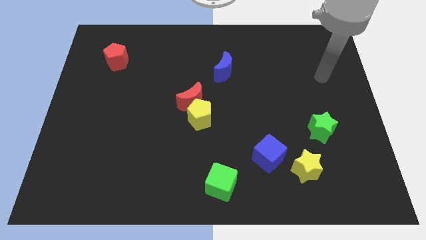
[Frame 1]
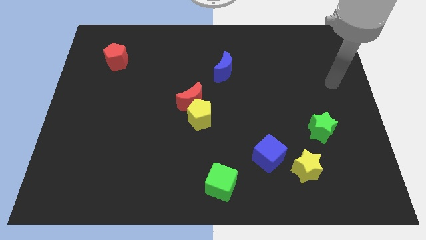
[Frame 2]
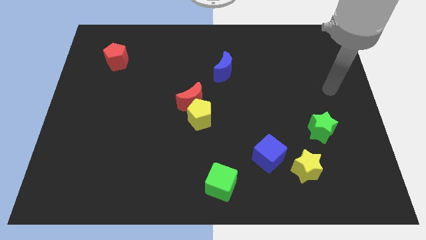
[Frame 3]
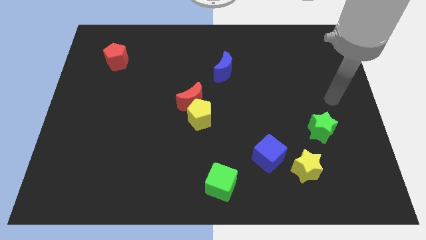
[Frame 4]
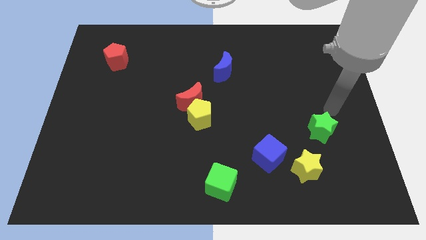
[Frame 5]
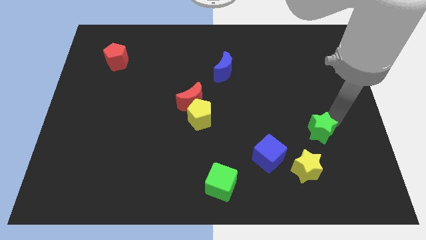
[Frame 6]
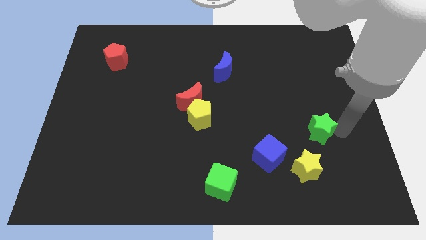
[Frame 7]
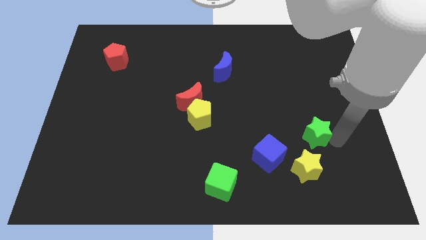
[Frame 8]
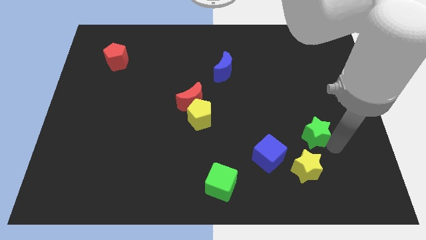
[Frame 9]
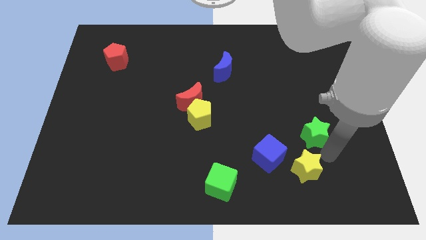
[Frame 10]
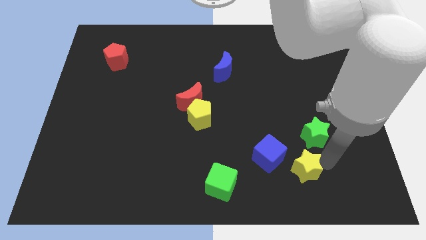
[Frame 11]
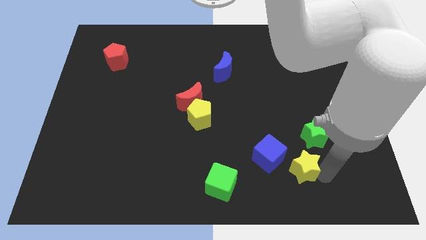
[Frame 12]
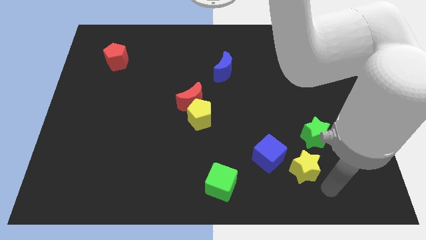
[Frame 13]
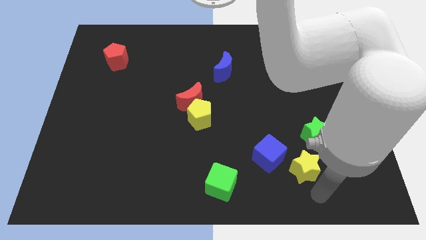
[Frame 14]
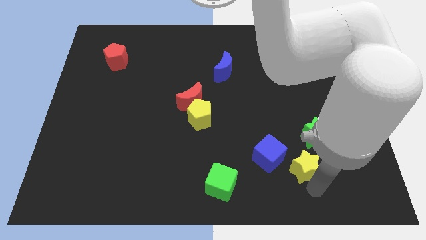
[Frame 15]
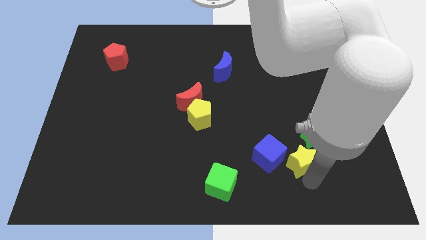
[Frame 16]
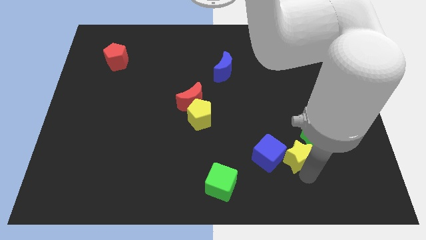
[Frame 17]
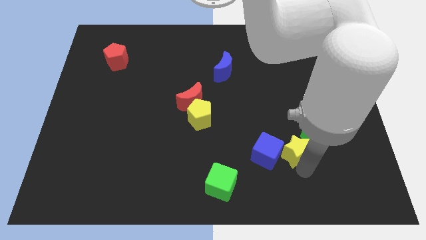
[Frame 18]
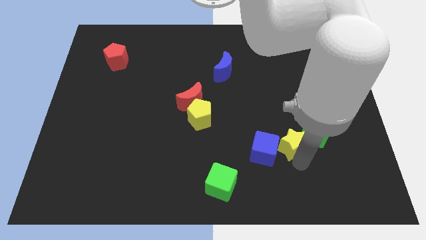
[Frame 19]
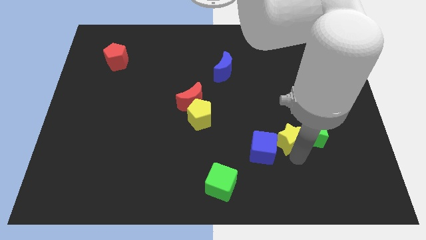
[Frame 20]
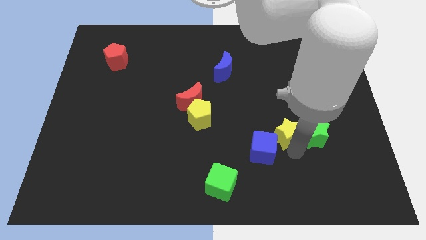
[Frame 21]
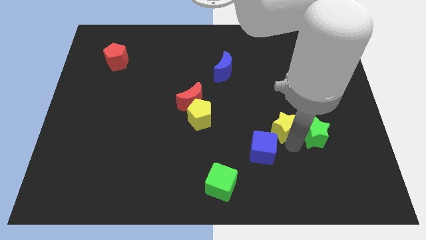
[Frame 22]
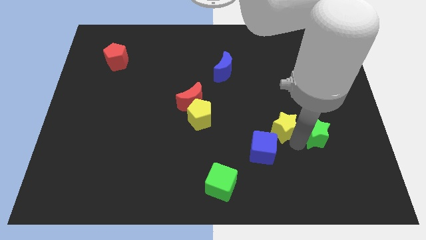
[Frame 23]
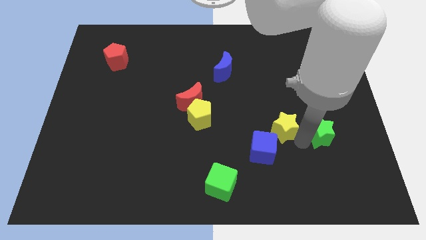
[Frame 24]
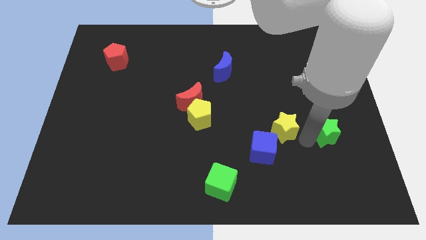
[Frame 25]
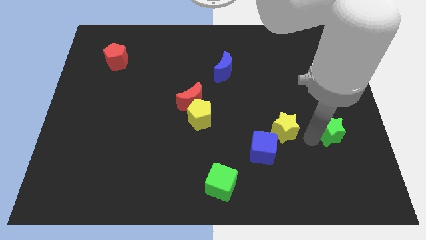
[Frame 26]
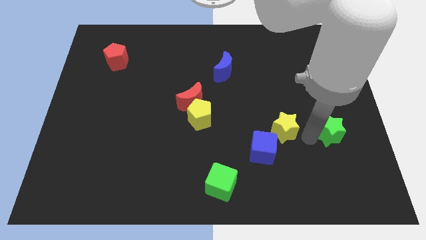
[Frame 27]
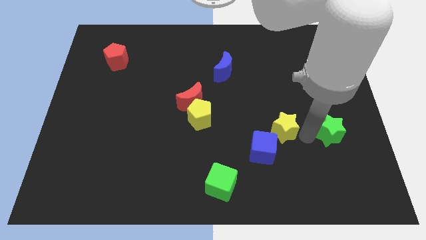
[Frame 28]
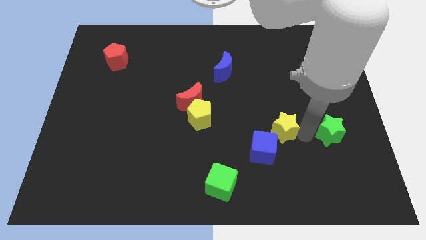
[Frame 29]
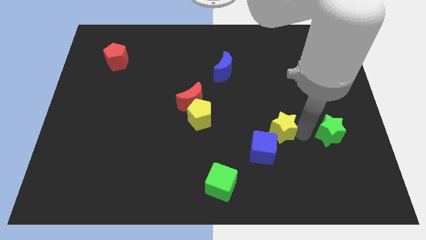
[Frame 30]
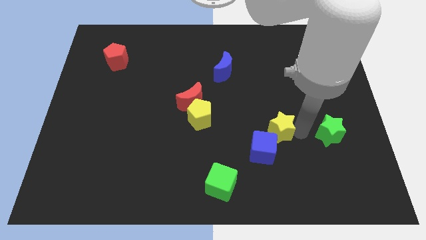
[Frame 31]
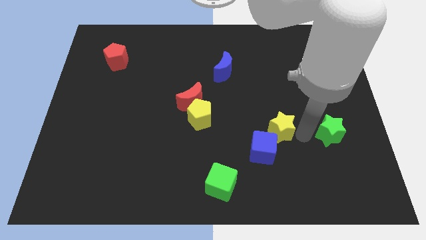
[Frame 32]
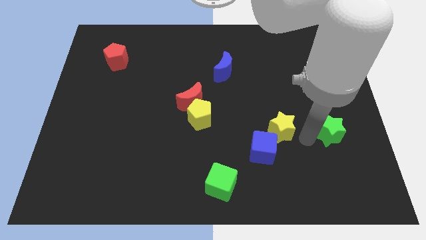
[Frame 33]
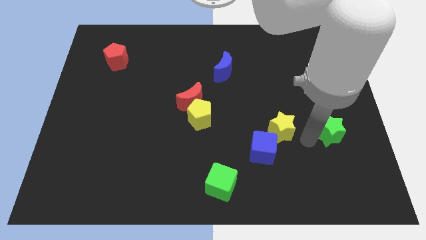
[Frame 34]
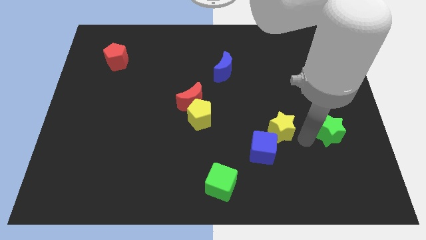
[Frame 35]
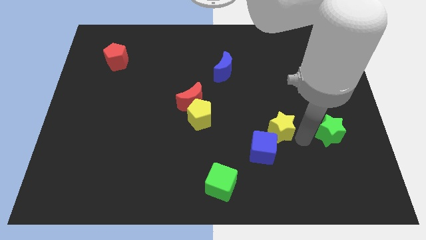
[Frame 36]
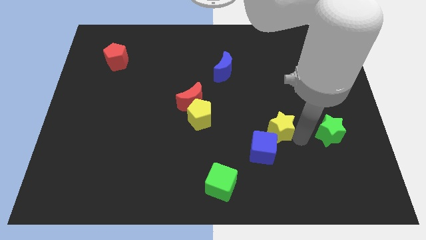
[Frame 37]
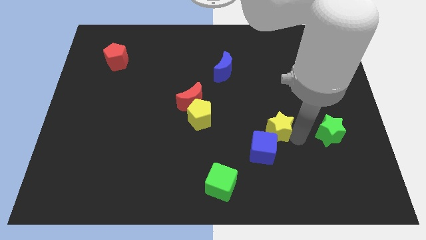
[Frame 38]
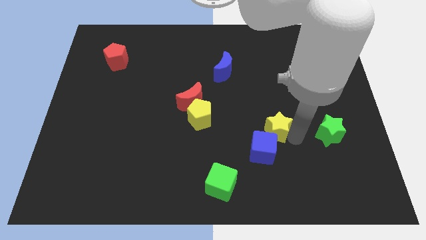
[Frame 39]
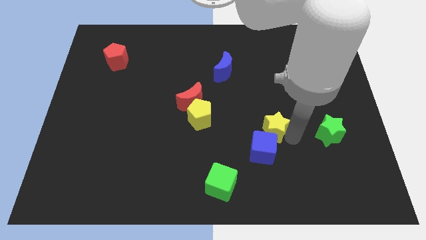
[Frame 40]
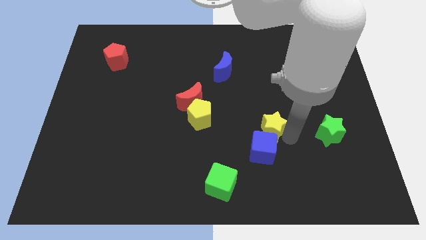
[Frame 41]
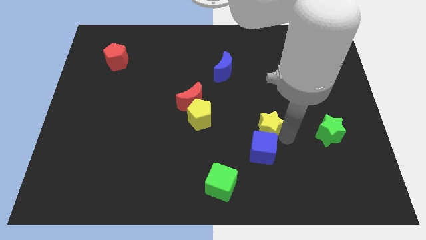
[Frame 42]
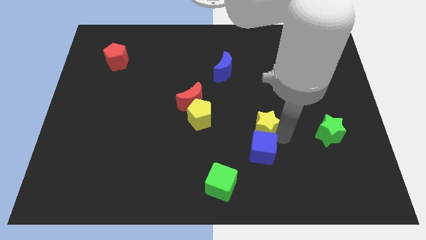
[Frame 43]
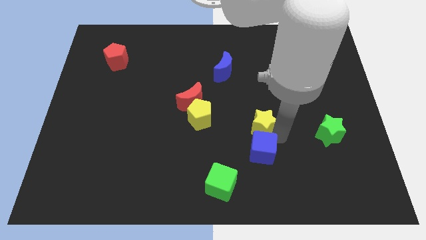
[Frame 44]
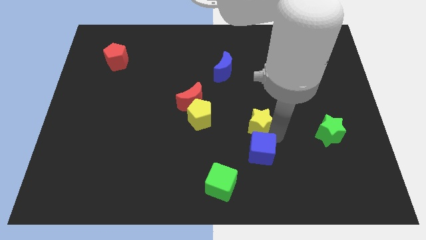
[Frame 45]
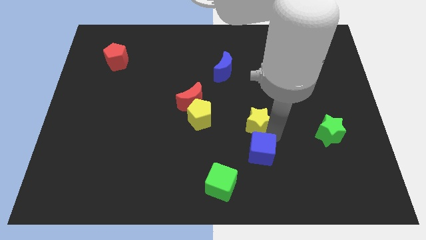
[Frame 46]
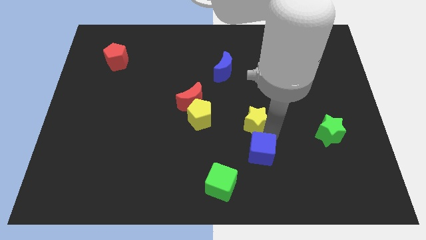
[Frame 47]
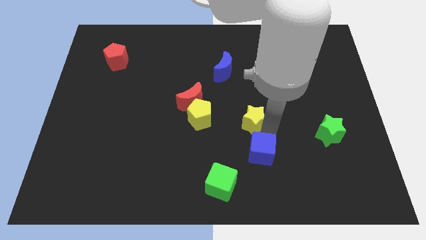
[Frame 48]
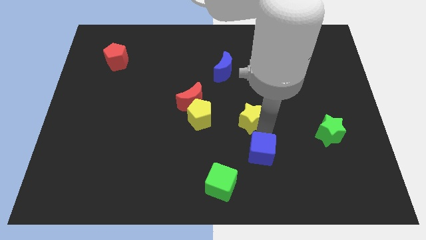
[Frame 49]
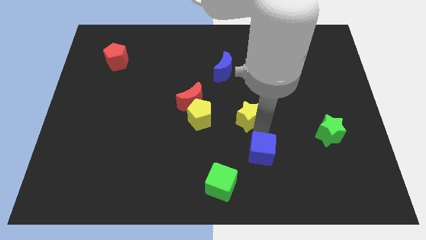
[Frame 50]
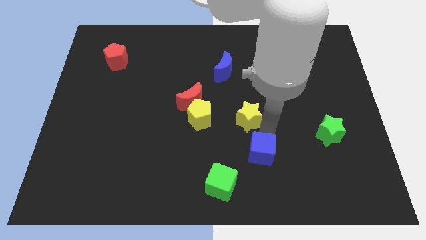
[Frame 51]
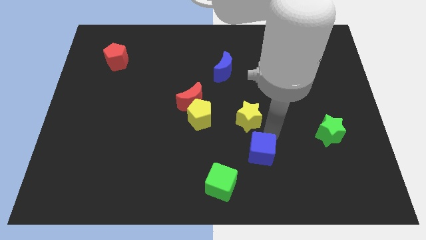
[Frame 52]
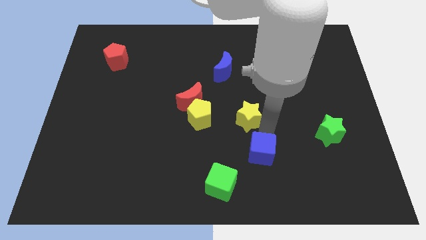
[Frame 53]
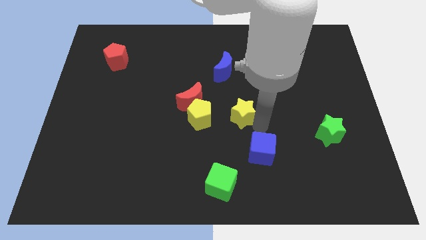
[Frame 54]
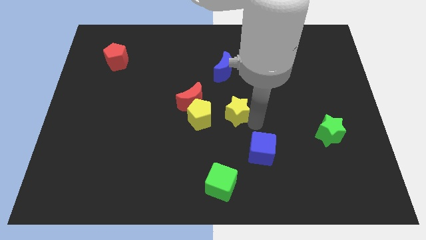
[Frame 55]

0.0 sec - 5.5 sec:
slide the yellow star up and left diagonally

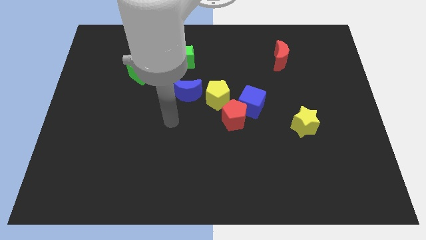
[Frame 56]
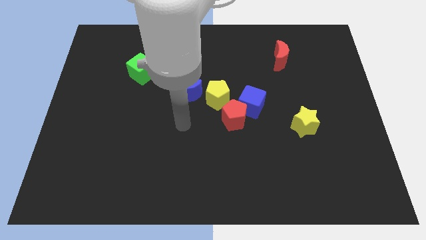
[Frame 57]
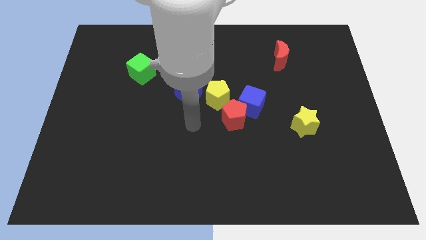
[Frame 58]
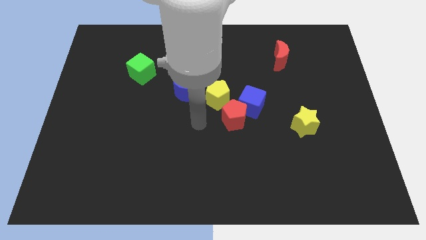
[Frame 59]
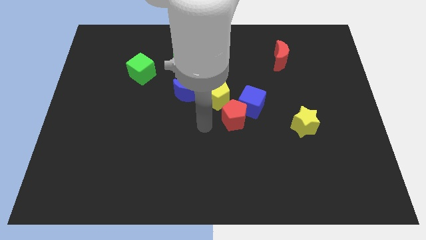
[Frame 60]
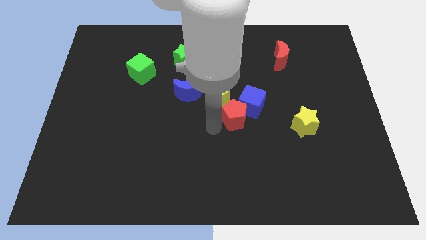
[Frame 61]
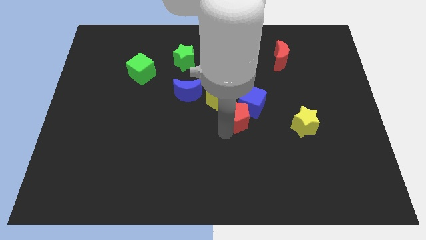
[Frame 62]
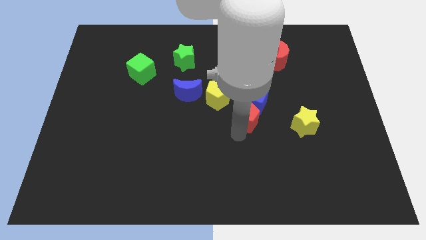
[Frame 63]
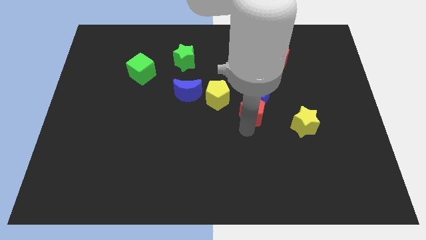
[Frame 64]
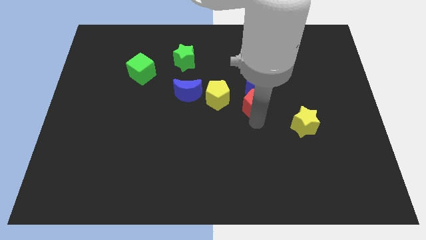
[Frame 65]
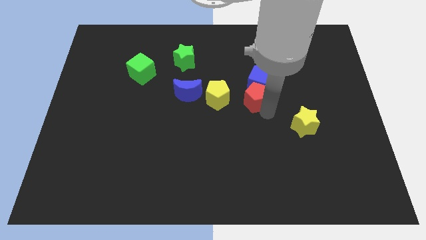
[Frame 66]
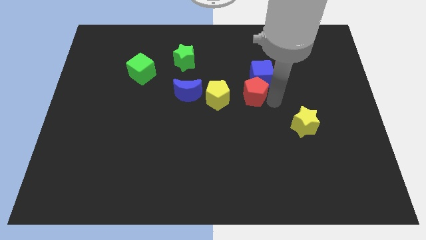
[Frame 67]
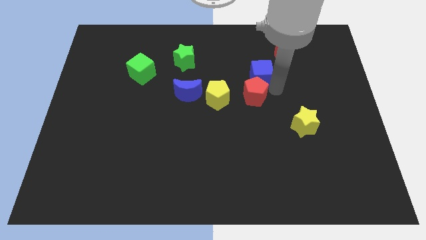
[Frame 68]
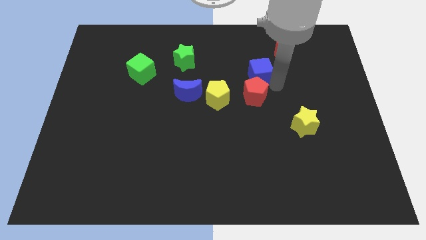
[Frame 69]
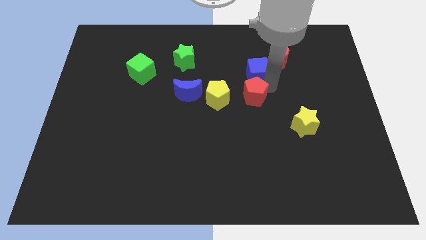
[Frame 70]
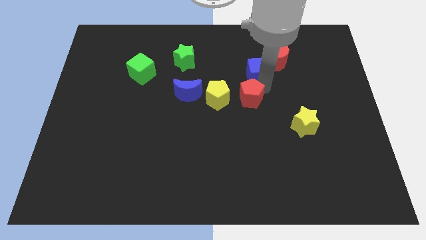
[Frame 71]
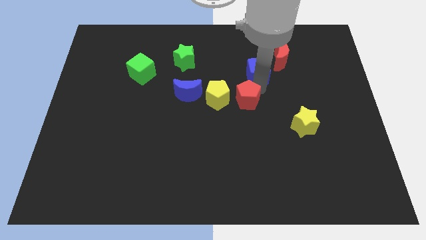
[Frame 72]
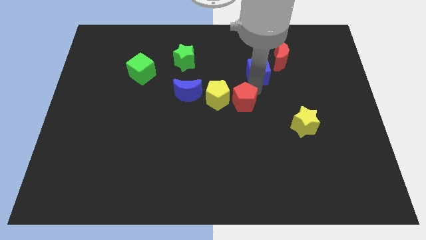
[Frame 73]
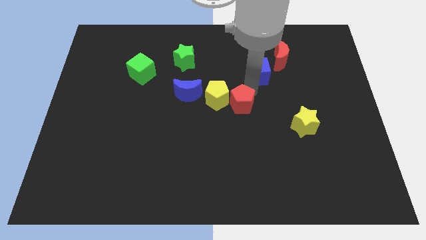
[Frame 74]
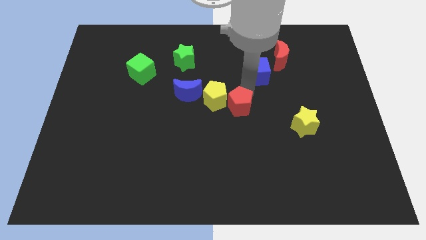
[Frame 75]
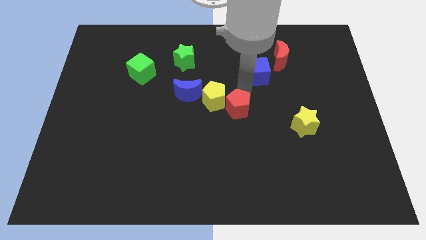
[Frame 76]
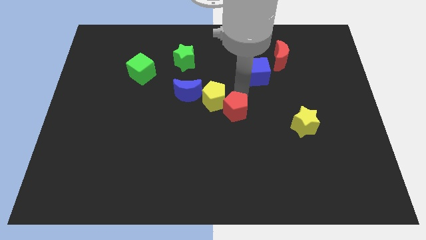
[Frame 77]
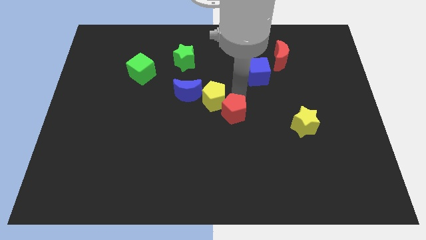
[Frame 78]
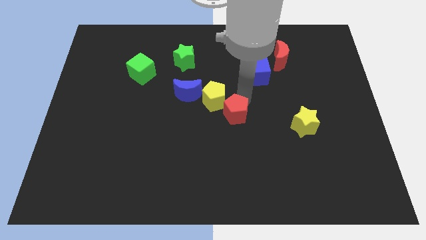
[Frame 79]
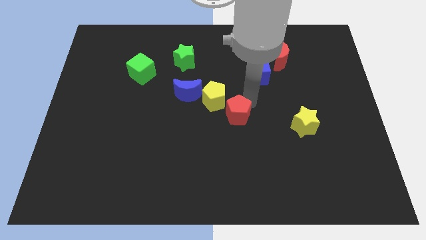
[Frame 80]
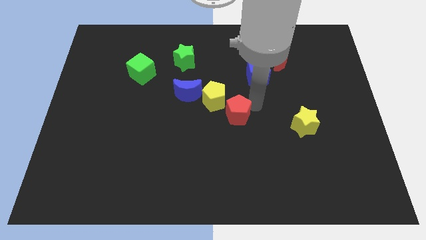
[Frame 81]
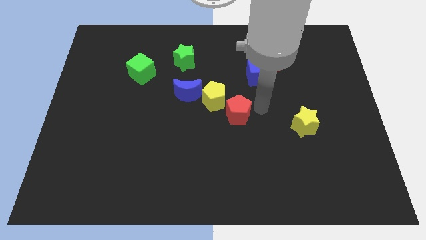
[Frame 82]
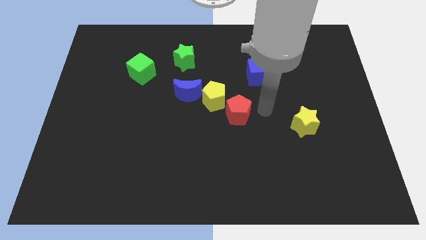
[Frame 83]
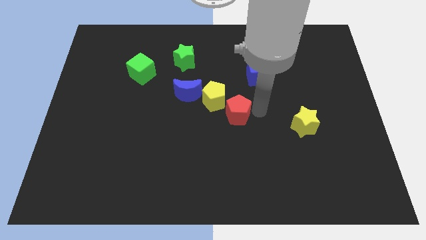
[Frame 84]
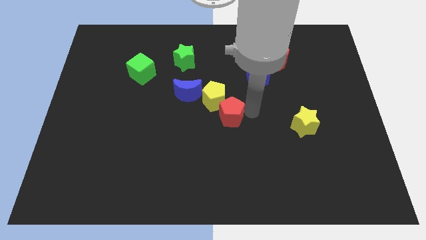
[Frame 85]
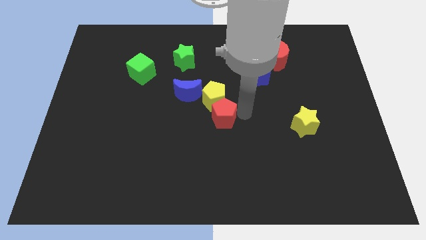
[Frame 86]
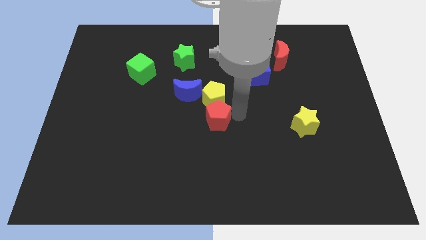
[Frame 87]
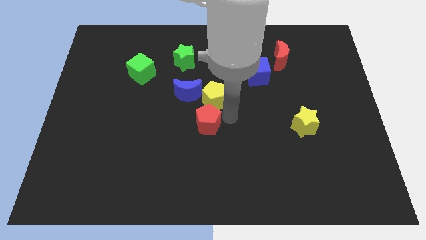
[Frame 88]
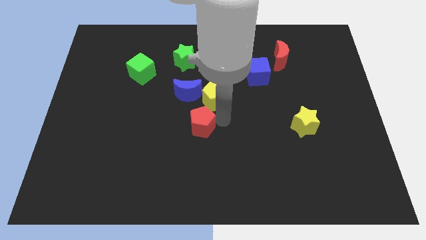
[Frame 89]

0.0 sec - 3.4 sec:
slide the red pentagon to the left a little bit
